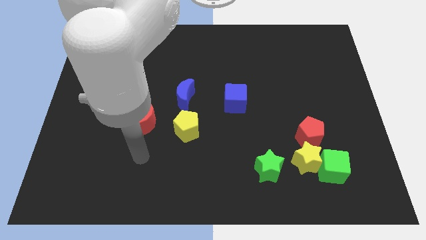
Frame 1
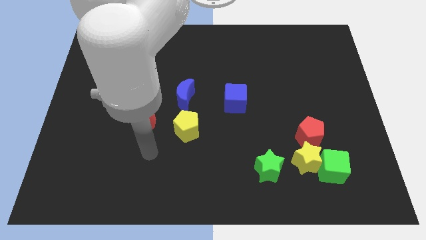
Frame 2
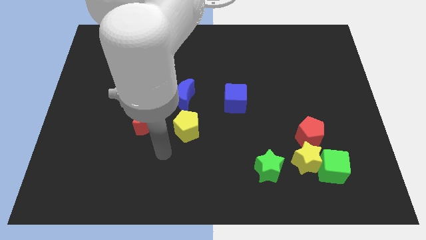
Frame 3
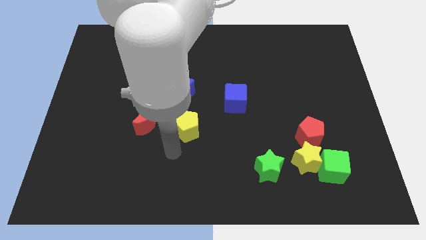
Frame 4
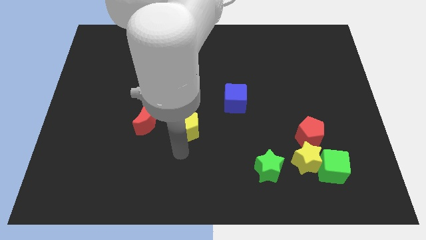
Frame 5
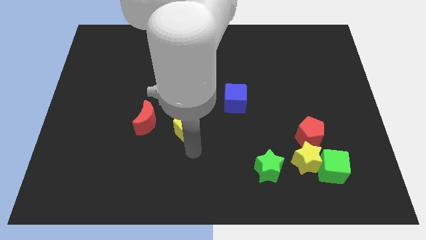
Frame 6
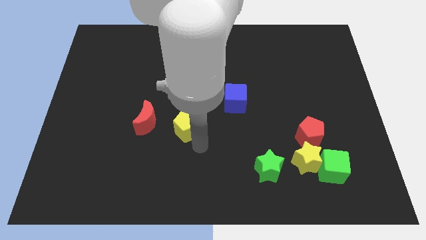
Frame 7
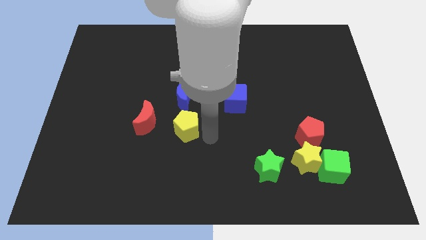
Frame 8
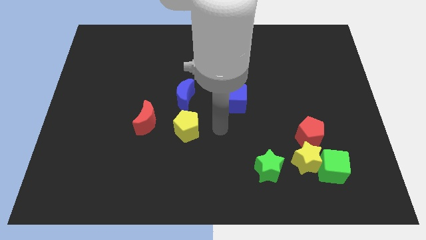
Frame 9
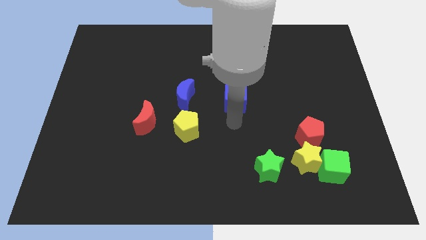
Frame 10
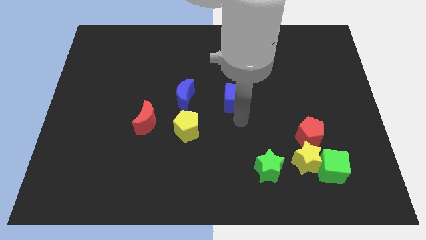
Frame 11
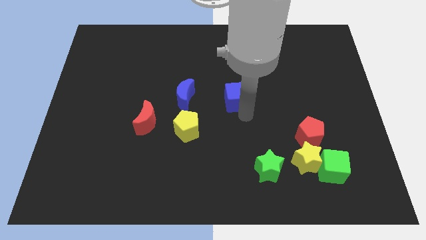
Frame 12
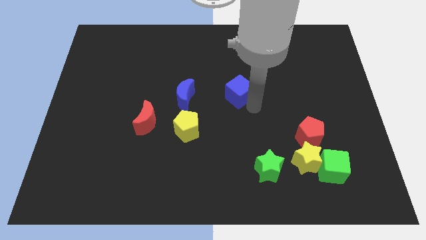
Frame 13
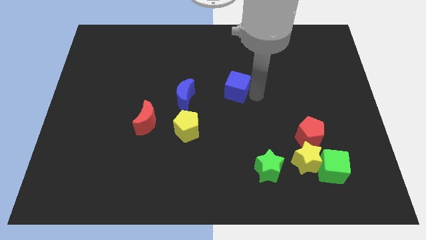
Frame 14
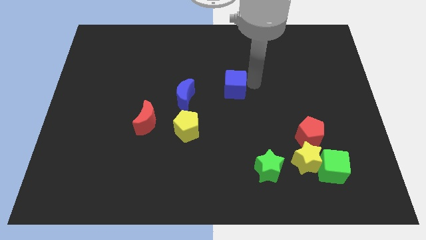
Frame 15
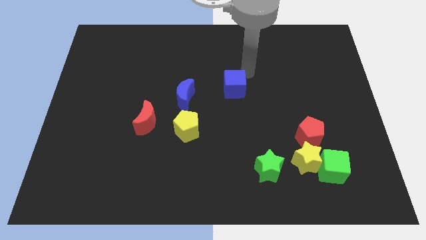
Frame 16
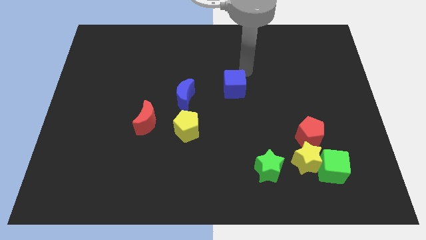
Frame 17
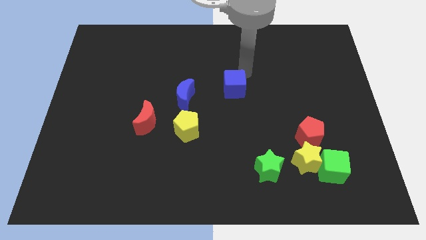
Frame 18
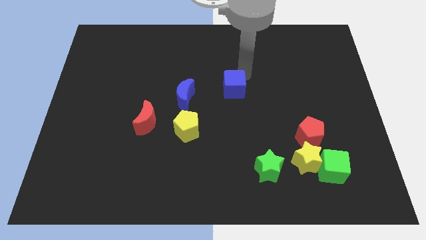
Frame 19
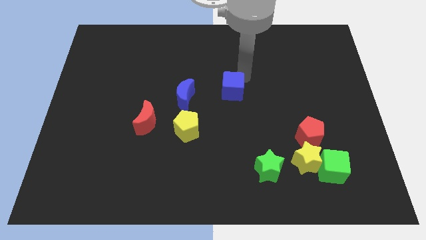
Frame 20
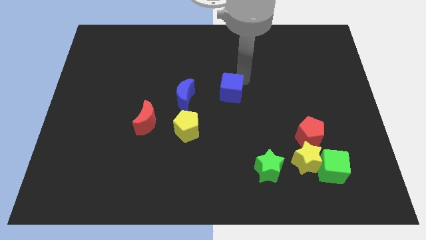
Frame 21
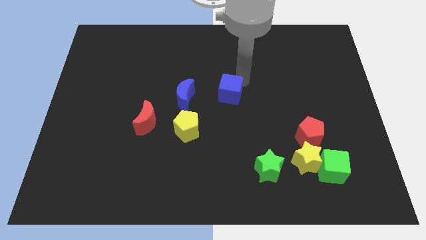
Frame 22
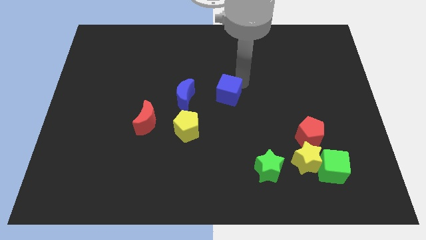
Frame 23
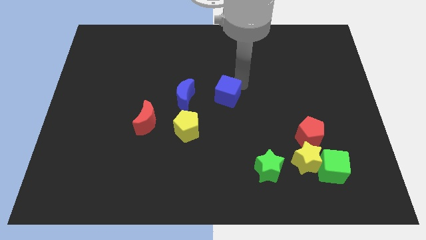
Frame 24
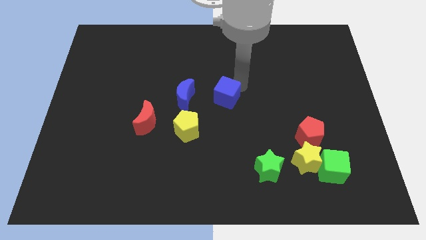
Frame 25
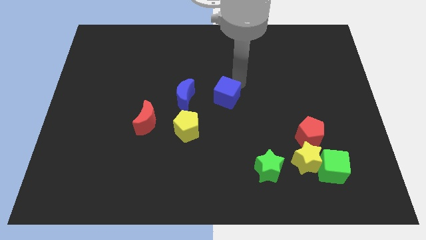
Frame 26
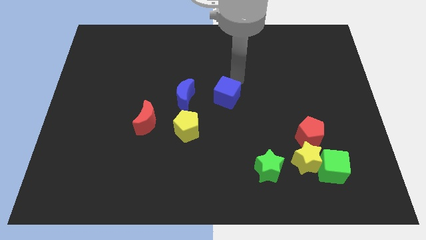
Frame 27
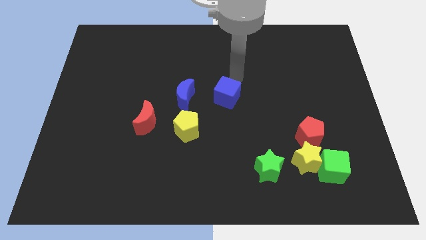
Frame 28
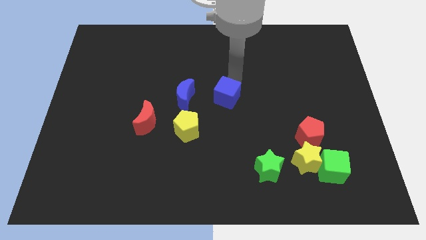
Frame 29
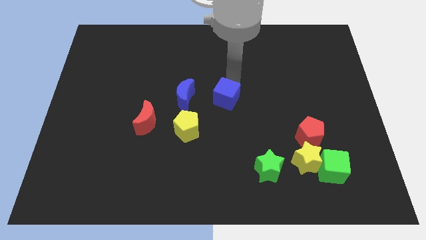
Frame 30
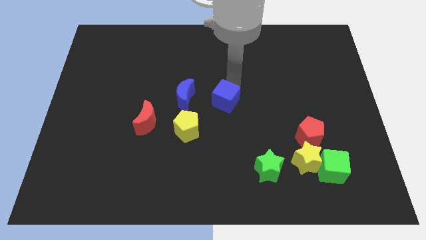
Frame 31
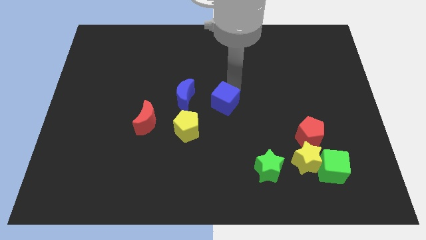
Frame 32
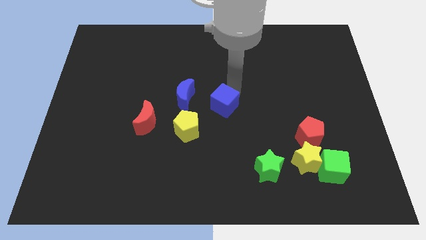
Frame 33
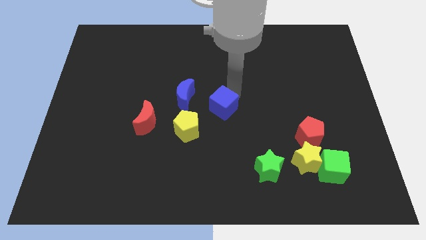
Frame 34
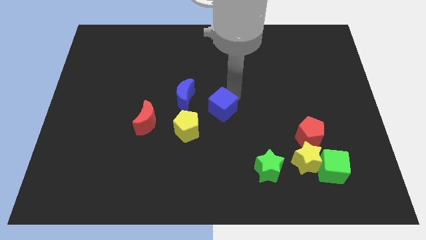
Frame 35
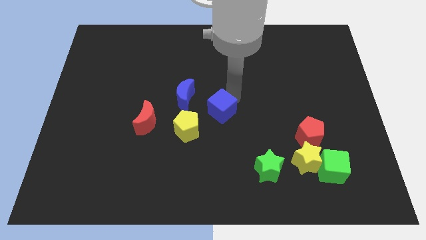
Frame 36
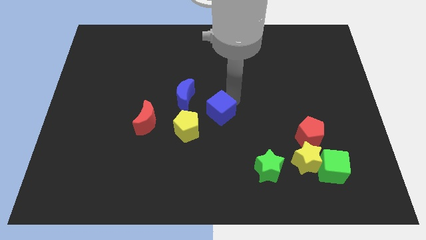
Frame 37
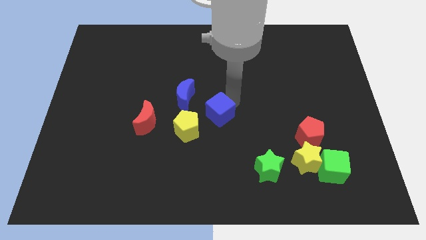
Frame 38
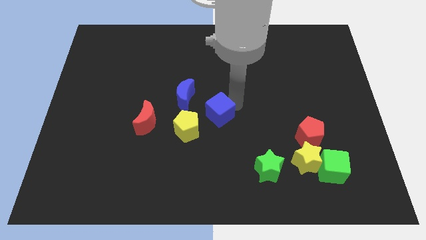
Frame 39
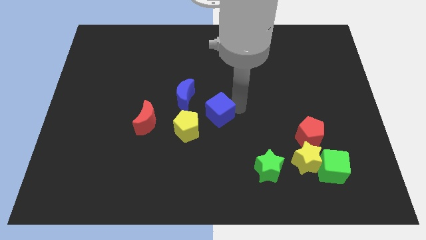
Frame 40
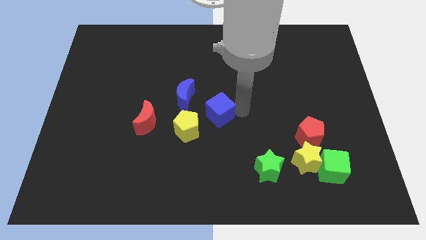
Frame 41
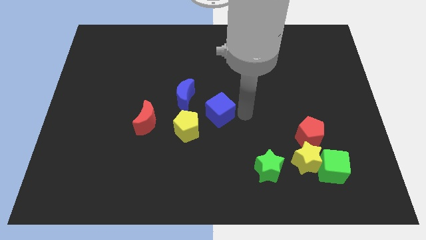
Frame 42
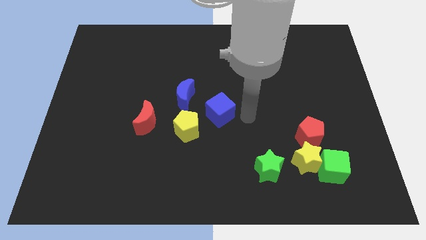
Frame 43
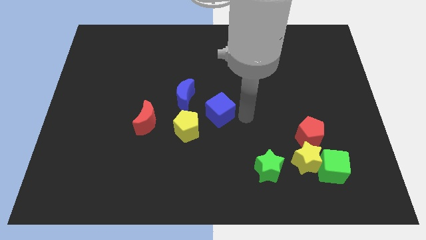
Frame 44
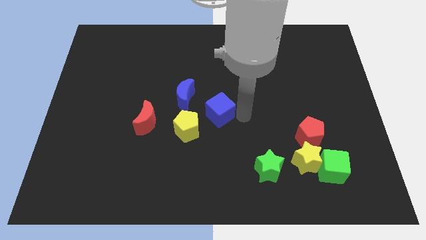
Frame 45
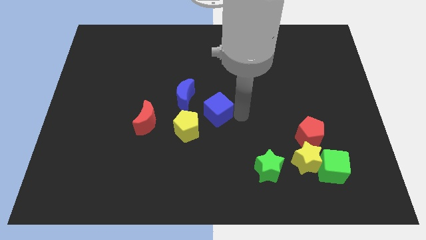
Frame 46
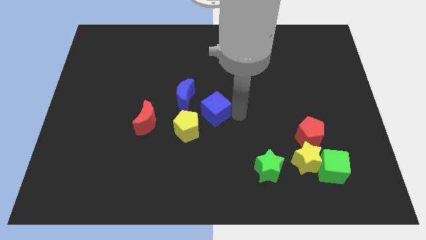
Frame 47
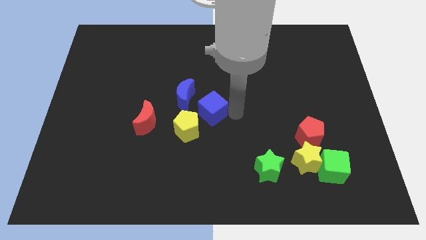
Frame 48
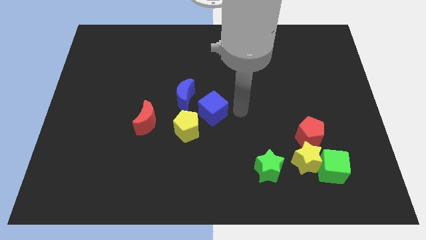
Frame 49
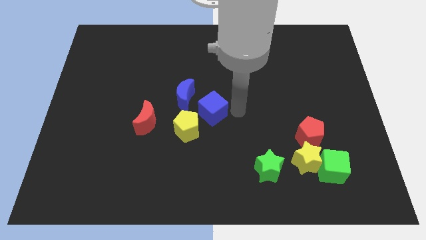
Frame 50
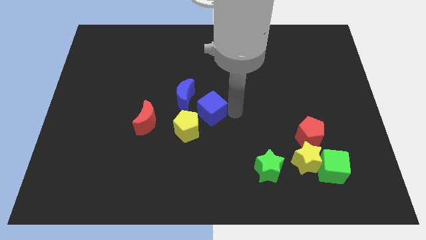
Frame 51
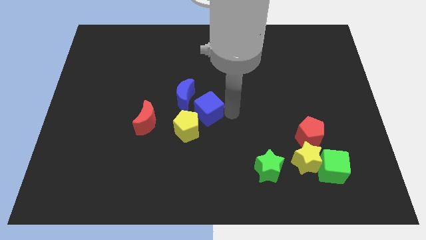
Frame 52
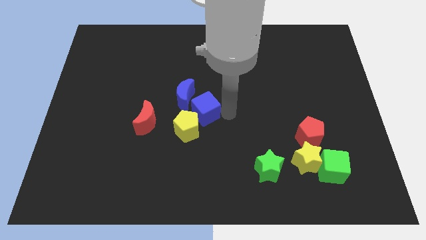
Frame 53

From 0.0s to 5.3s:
slide the blue cube left somewhat

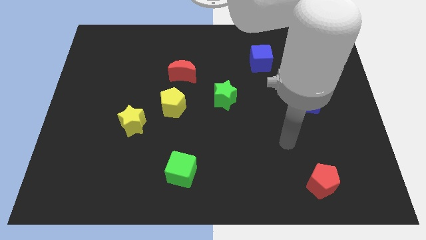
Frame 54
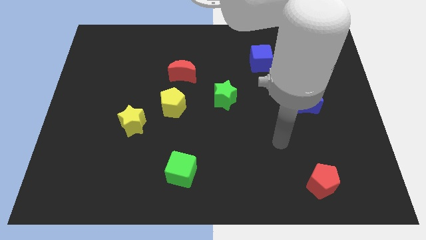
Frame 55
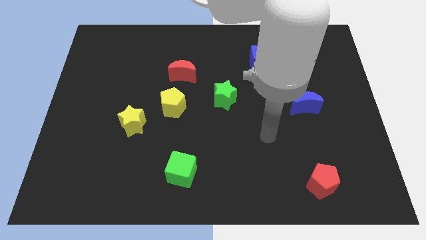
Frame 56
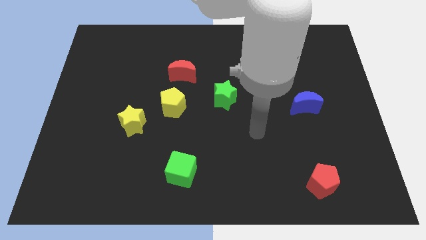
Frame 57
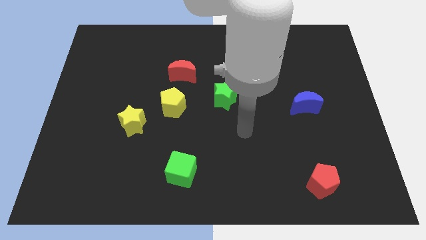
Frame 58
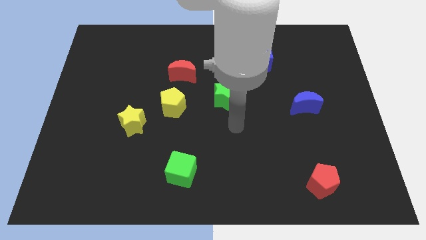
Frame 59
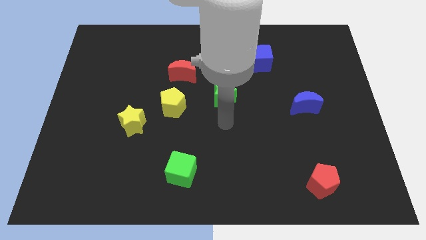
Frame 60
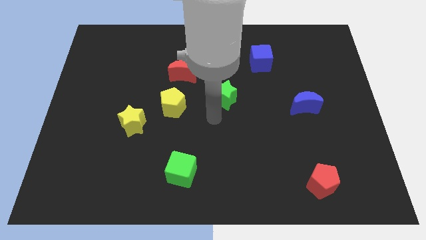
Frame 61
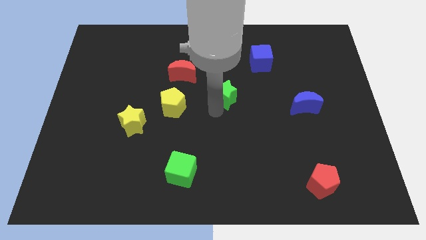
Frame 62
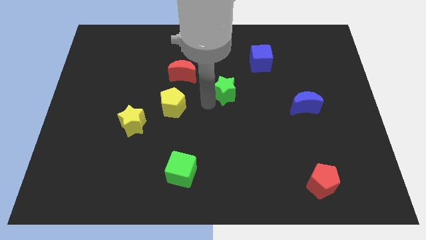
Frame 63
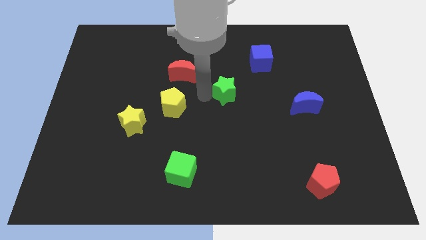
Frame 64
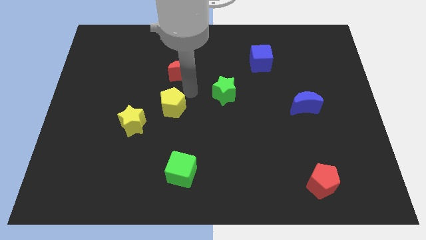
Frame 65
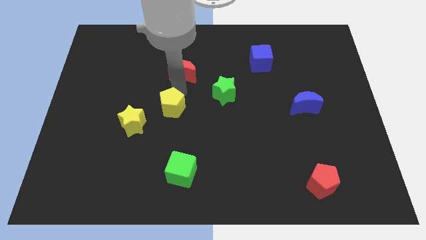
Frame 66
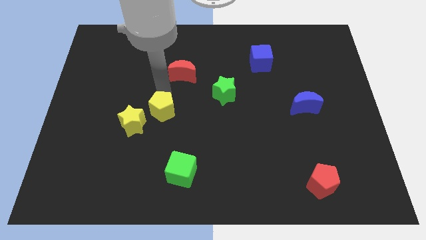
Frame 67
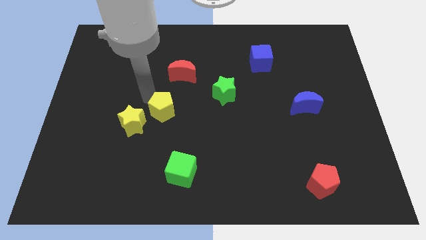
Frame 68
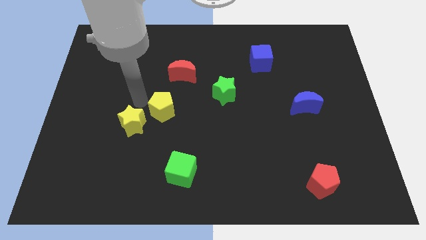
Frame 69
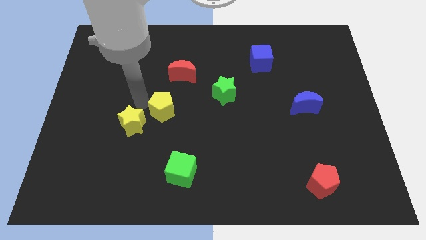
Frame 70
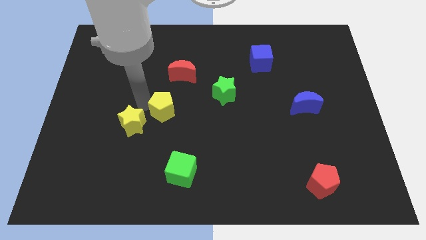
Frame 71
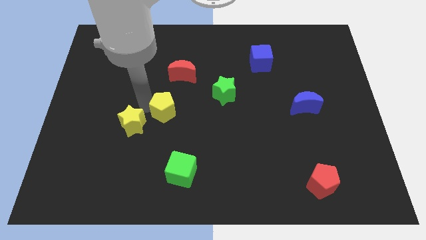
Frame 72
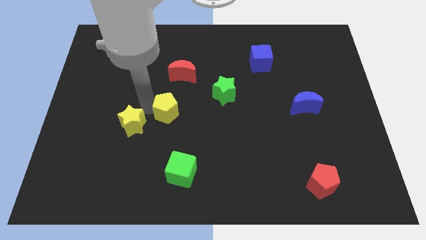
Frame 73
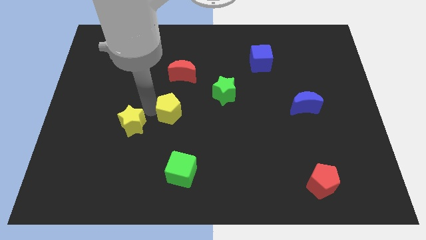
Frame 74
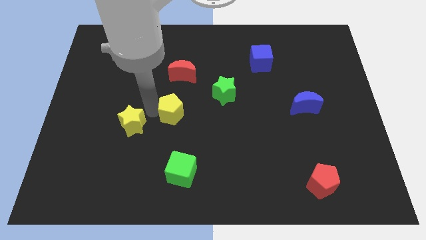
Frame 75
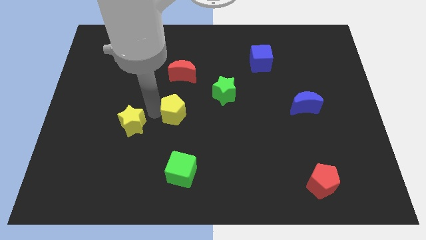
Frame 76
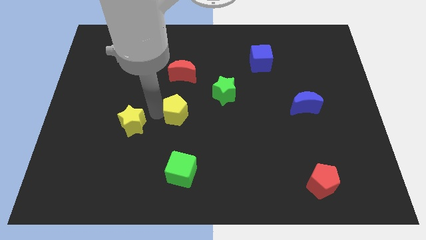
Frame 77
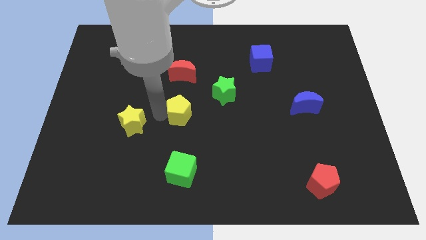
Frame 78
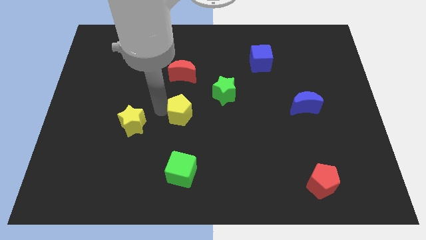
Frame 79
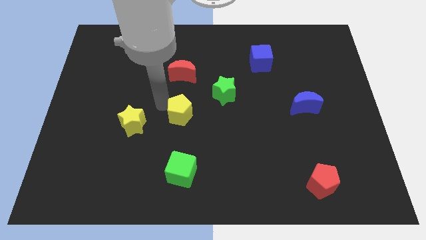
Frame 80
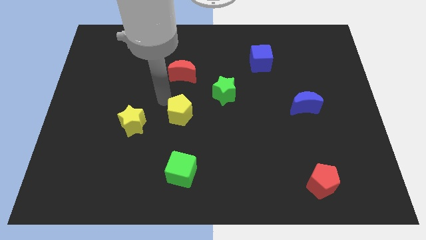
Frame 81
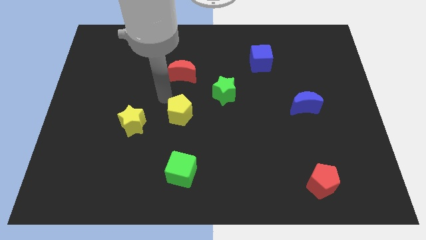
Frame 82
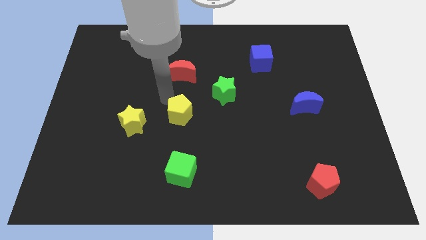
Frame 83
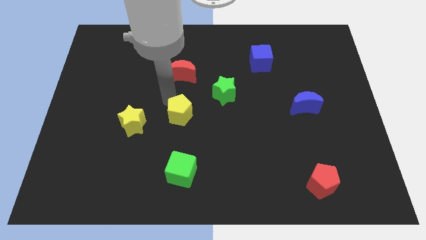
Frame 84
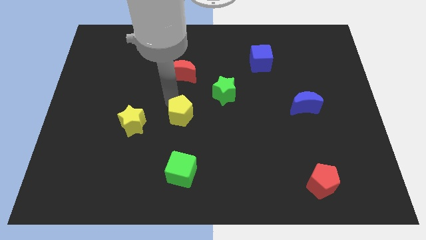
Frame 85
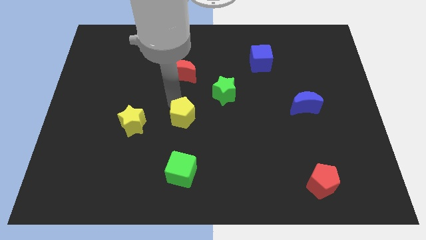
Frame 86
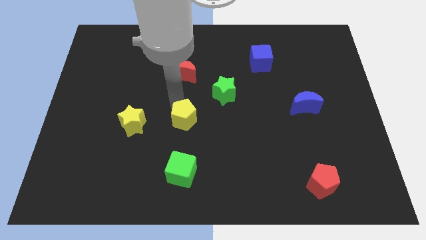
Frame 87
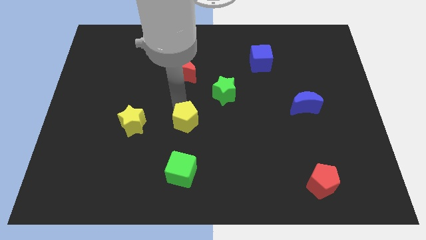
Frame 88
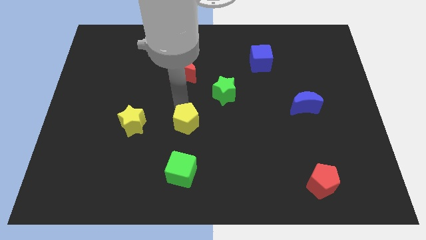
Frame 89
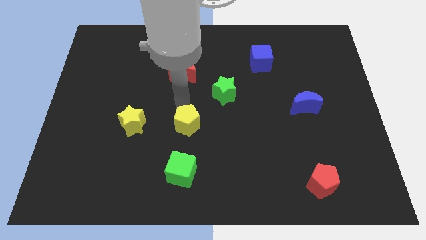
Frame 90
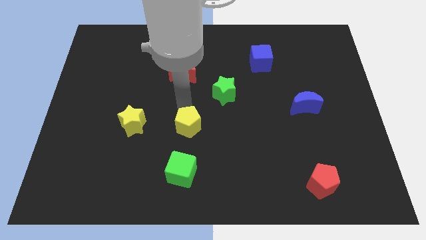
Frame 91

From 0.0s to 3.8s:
slide the yellow pentagon downwards and right a little
